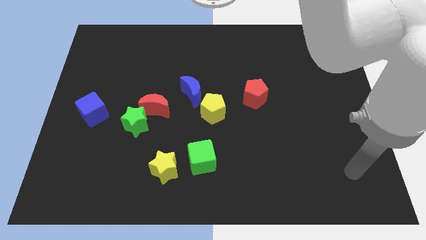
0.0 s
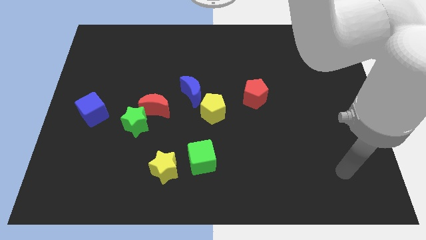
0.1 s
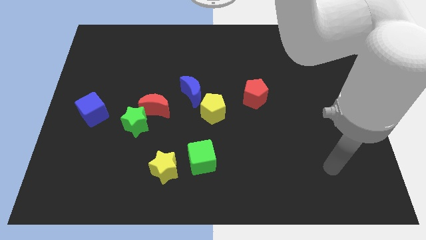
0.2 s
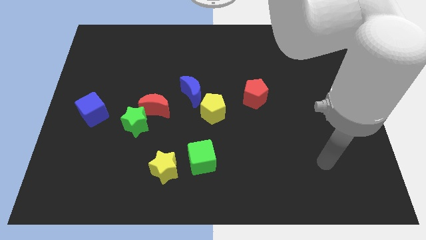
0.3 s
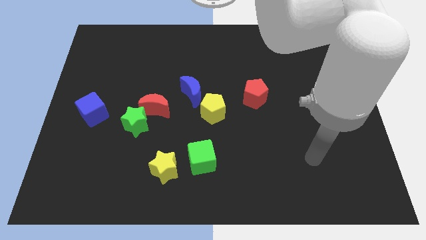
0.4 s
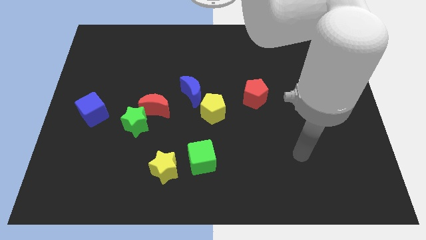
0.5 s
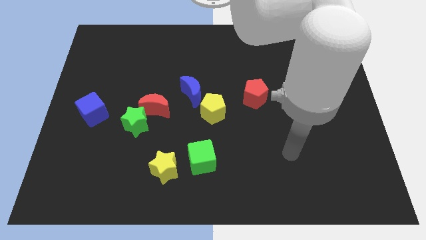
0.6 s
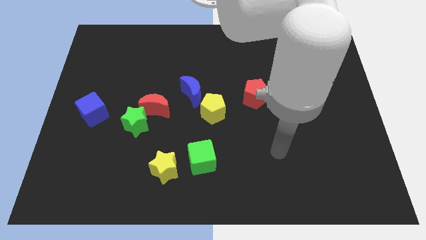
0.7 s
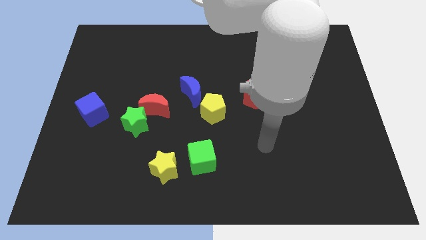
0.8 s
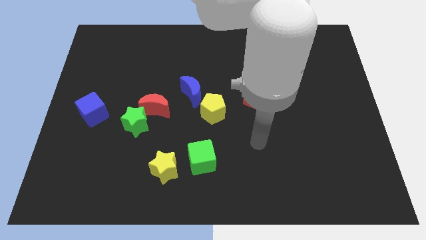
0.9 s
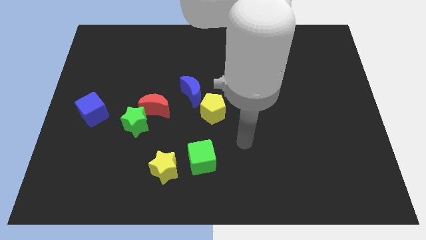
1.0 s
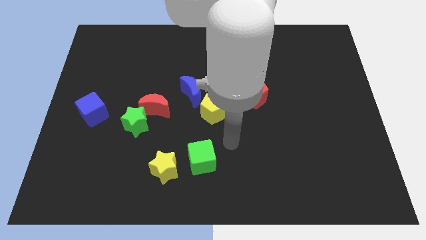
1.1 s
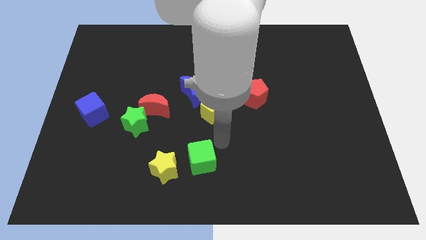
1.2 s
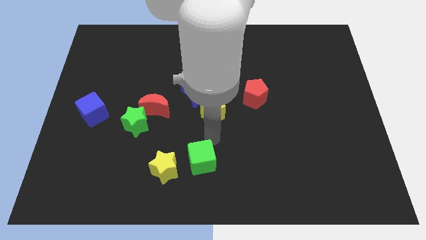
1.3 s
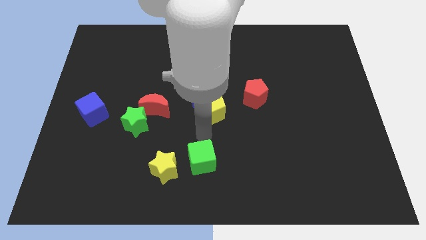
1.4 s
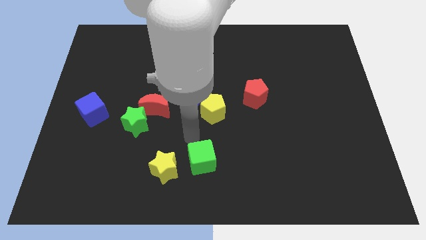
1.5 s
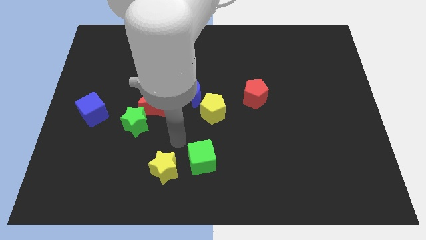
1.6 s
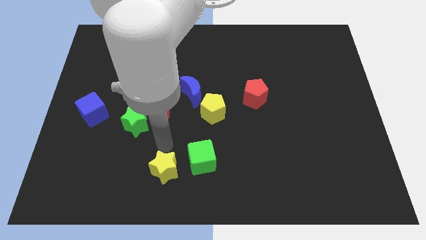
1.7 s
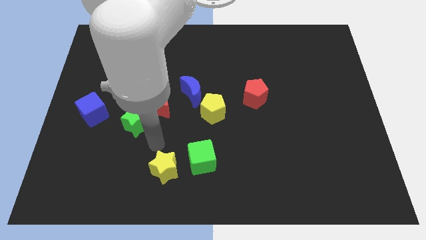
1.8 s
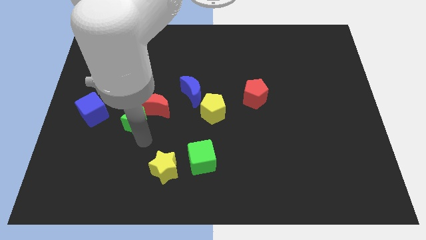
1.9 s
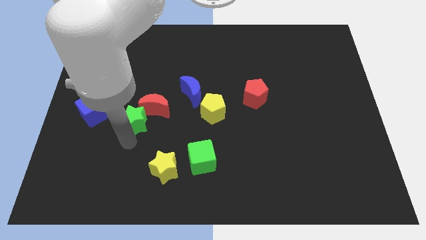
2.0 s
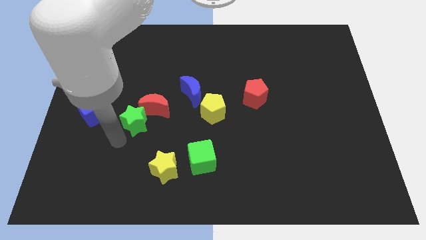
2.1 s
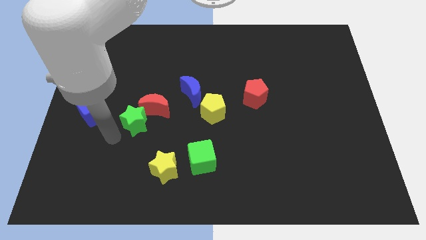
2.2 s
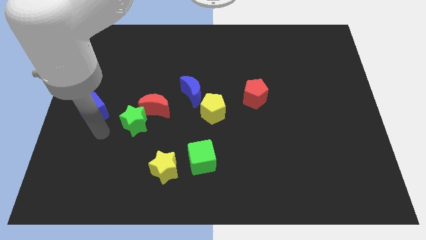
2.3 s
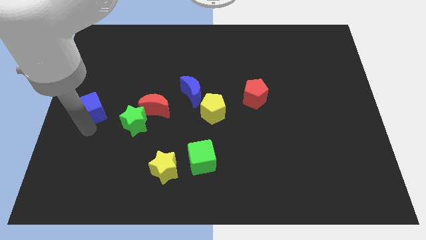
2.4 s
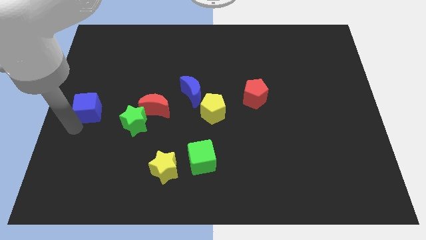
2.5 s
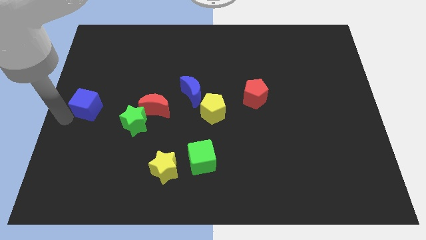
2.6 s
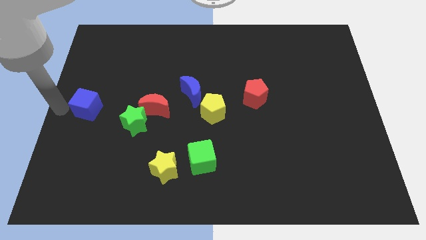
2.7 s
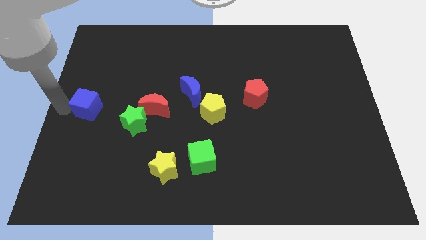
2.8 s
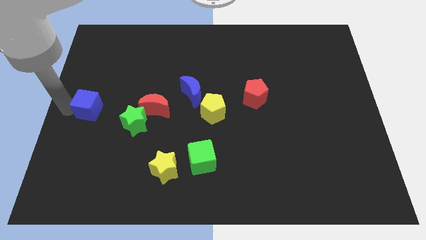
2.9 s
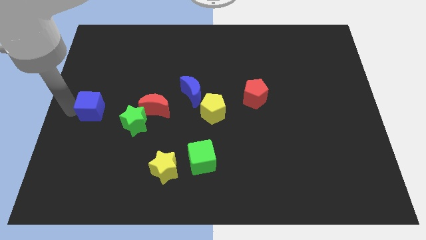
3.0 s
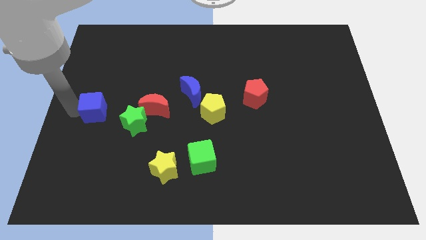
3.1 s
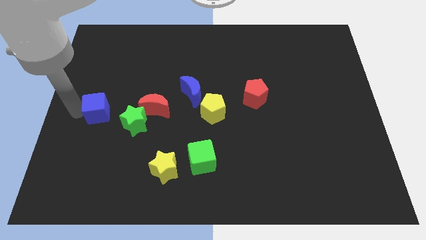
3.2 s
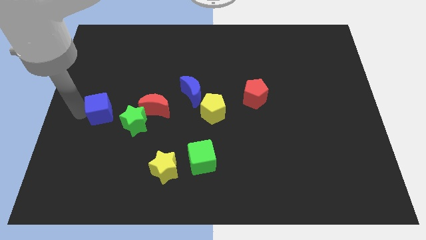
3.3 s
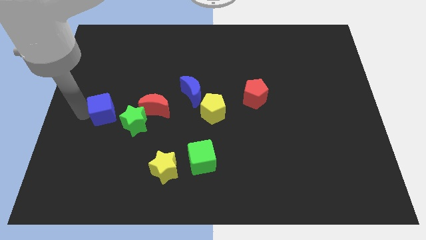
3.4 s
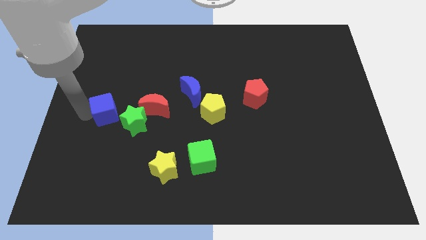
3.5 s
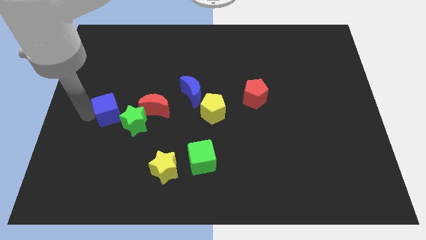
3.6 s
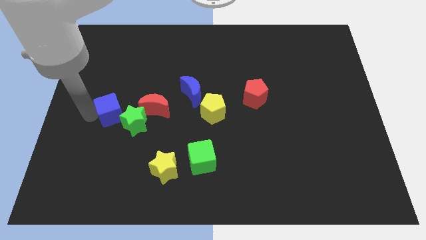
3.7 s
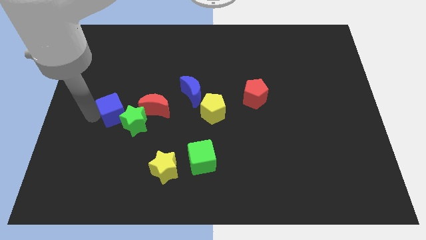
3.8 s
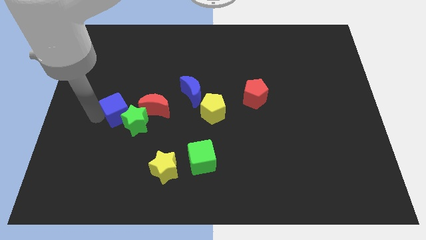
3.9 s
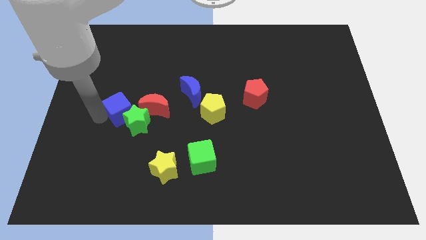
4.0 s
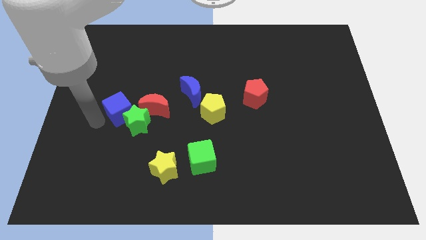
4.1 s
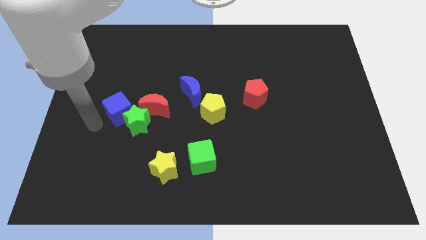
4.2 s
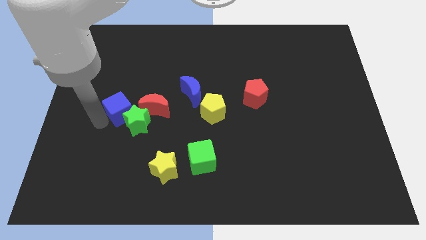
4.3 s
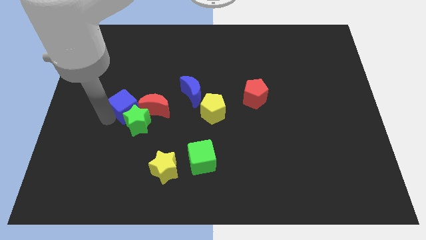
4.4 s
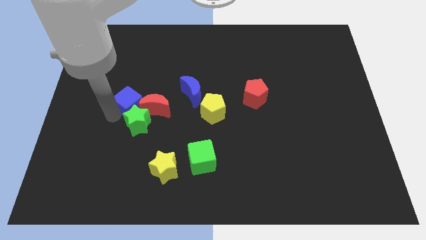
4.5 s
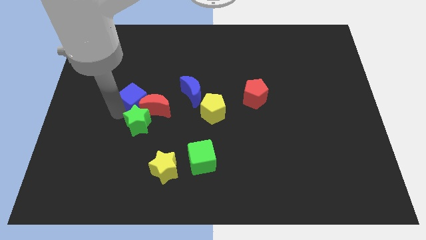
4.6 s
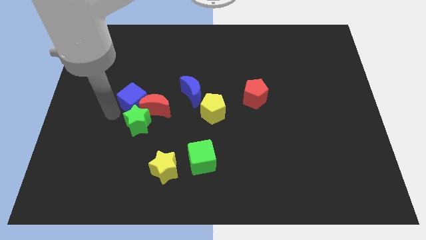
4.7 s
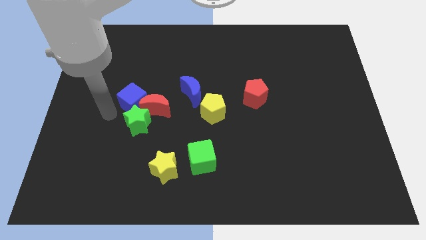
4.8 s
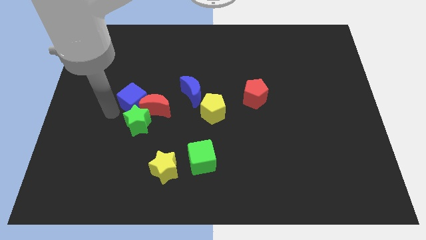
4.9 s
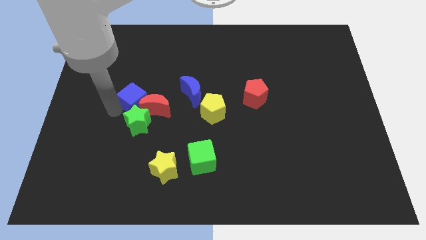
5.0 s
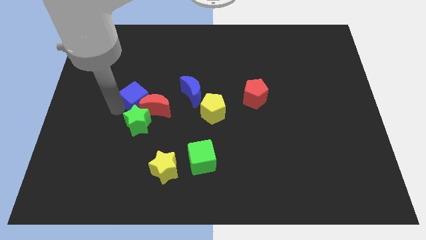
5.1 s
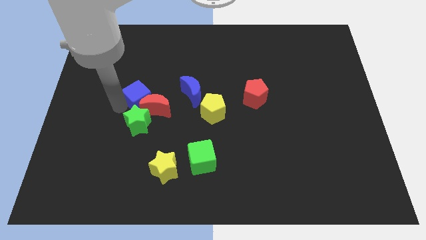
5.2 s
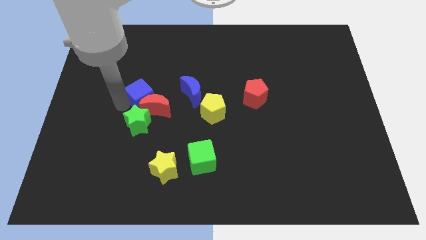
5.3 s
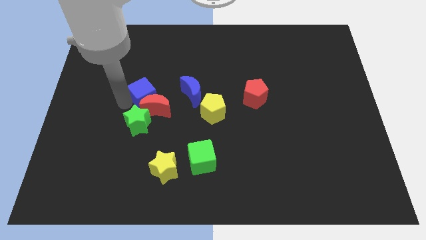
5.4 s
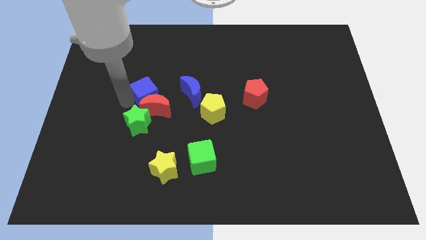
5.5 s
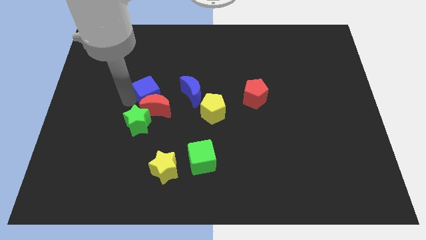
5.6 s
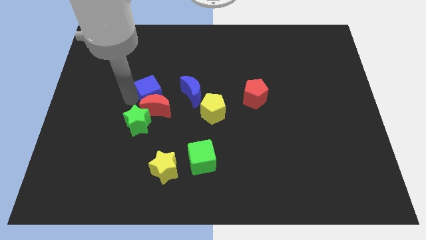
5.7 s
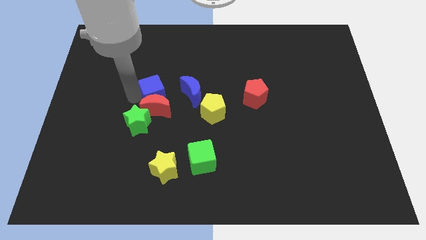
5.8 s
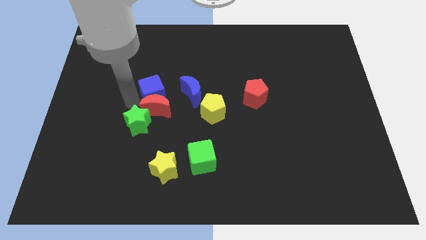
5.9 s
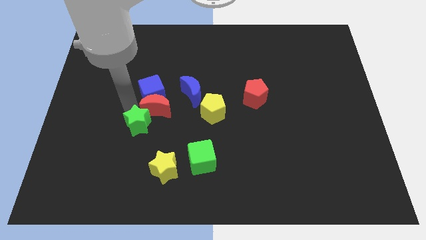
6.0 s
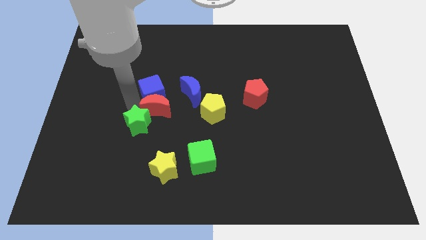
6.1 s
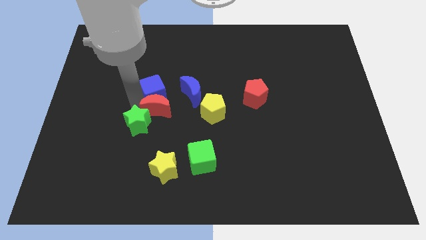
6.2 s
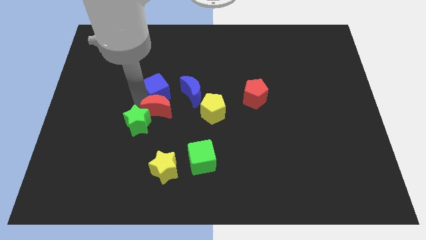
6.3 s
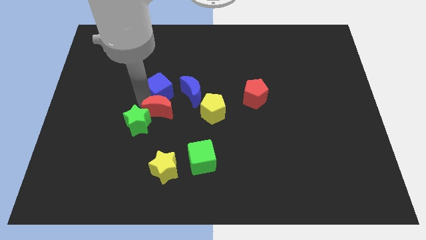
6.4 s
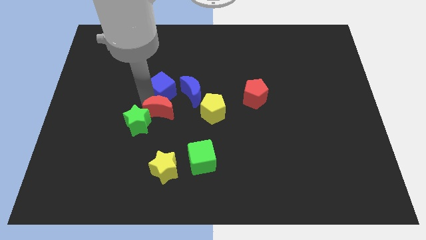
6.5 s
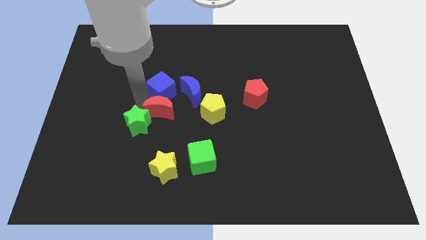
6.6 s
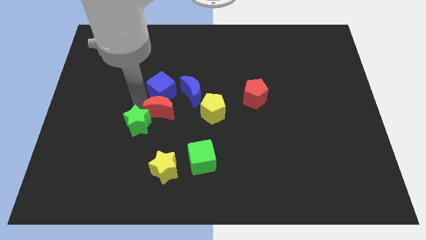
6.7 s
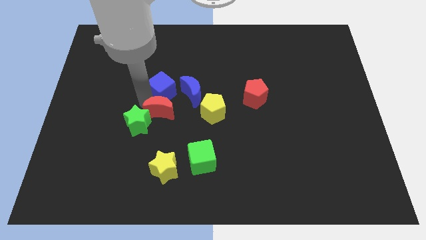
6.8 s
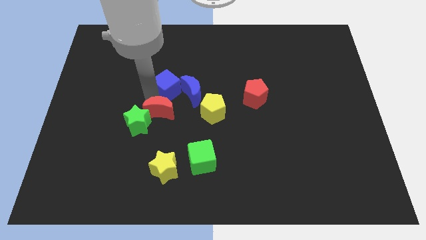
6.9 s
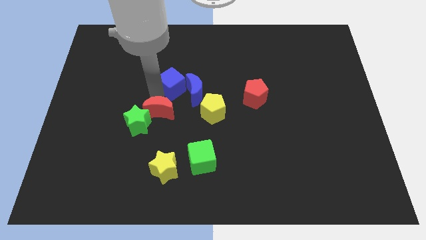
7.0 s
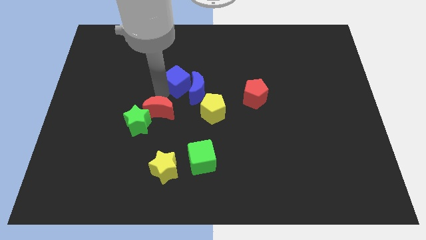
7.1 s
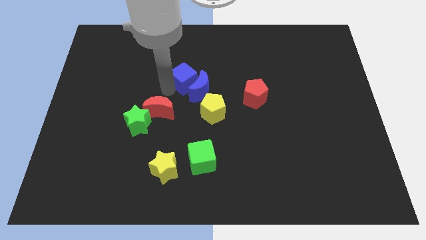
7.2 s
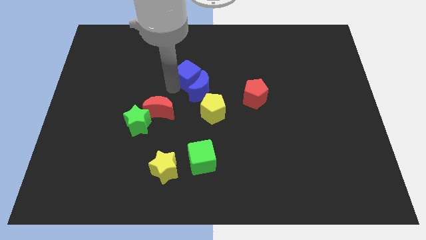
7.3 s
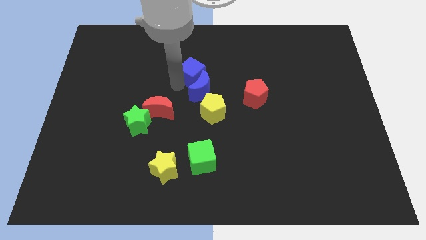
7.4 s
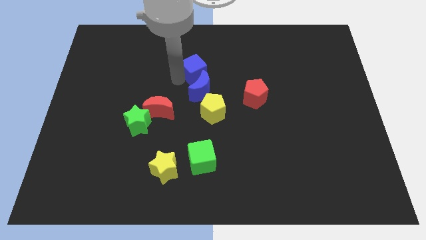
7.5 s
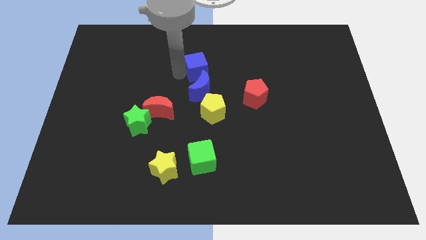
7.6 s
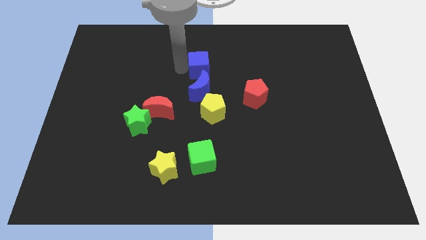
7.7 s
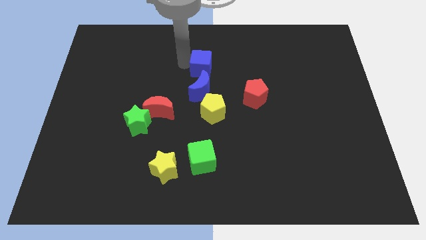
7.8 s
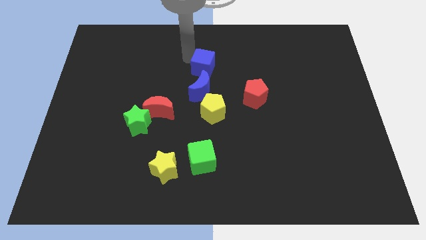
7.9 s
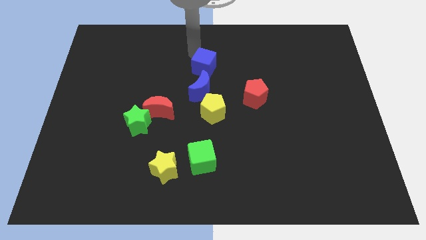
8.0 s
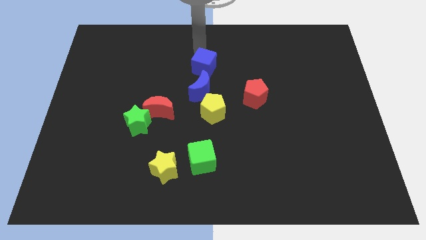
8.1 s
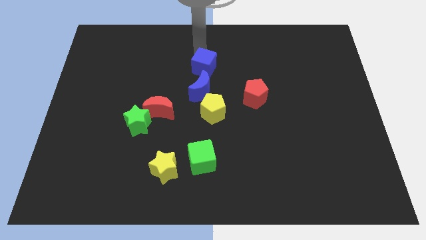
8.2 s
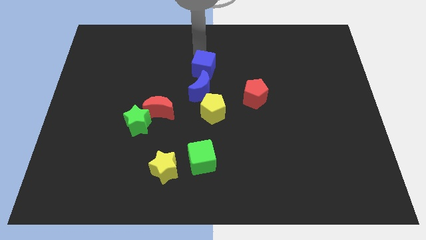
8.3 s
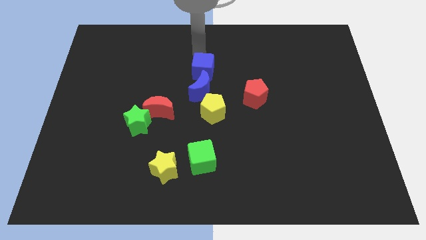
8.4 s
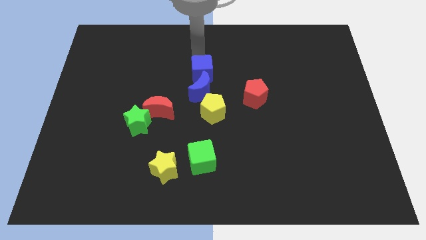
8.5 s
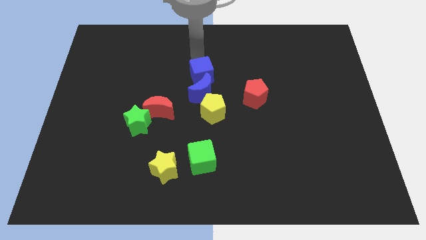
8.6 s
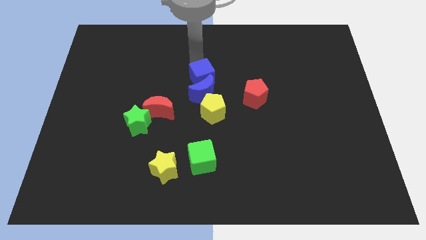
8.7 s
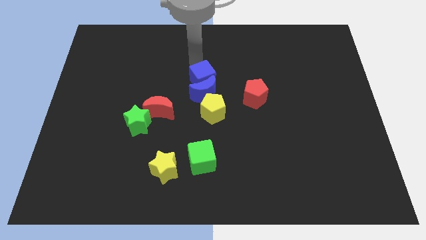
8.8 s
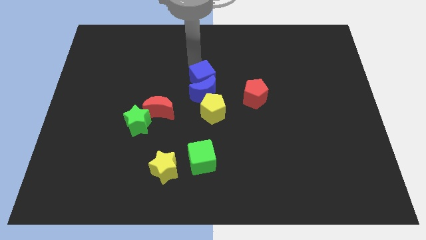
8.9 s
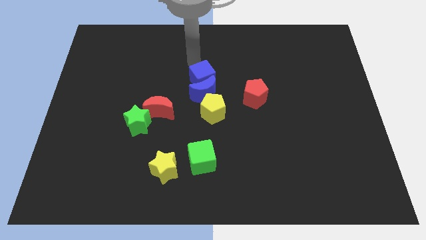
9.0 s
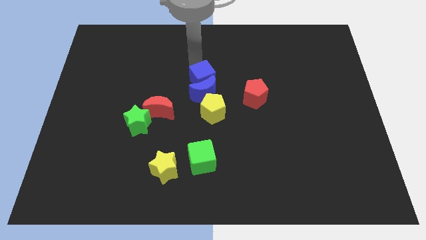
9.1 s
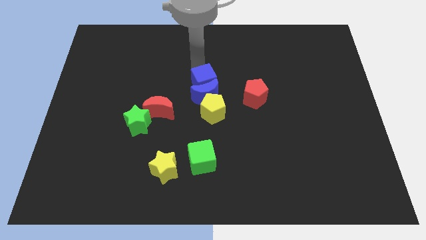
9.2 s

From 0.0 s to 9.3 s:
move the blue cube just left of the red pentagon
